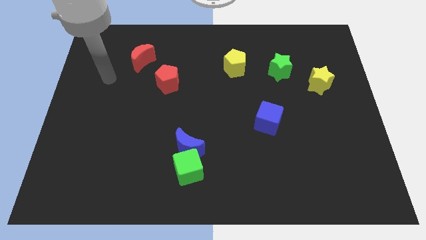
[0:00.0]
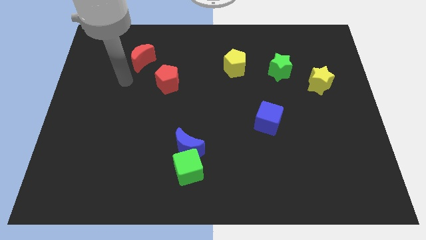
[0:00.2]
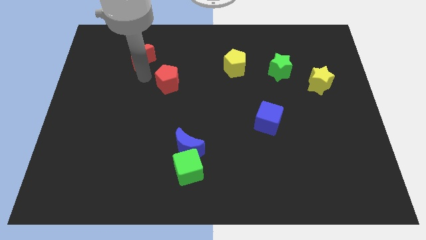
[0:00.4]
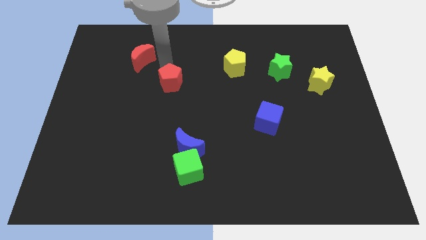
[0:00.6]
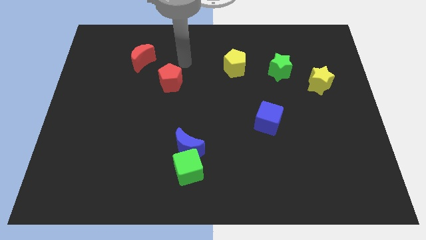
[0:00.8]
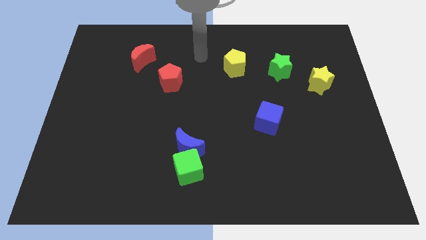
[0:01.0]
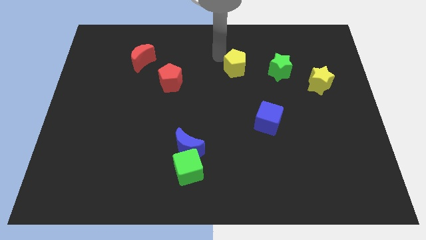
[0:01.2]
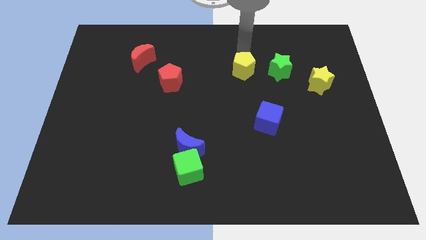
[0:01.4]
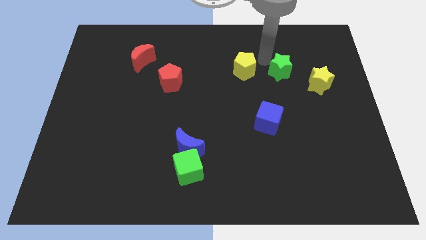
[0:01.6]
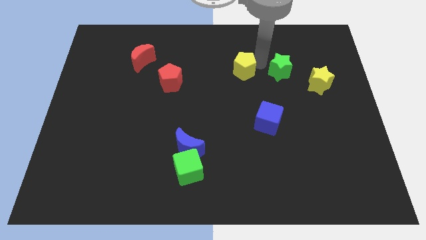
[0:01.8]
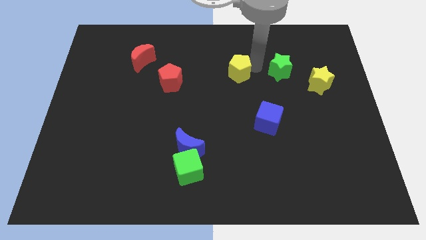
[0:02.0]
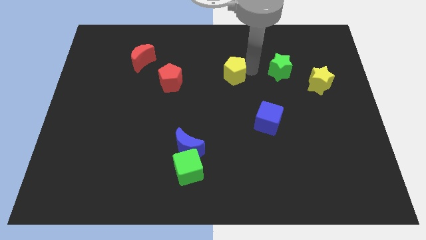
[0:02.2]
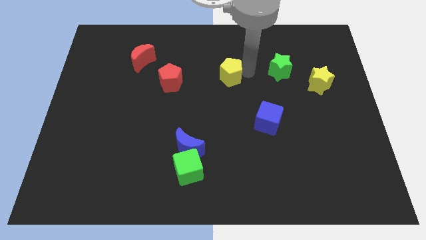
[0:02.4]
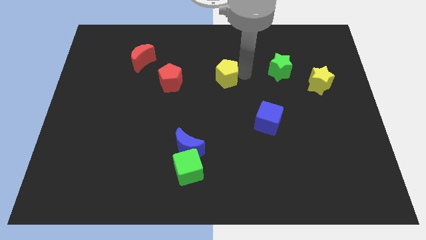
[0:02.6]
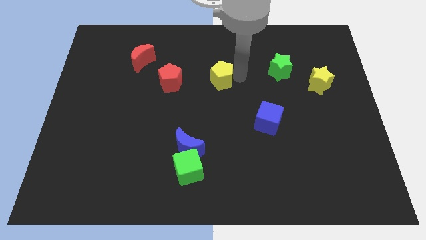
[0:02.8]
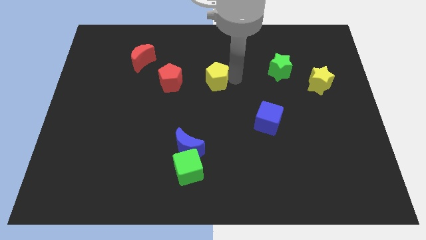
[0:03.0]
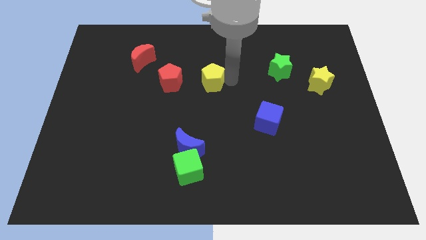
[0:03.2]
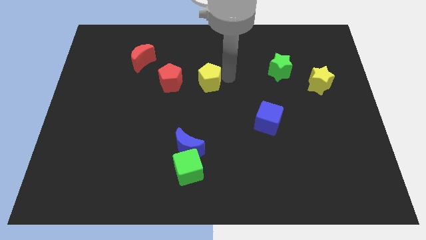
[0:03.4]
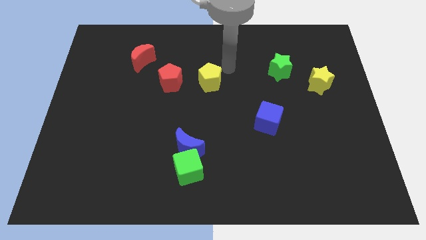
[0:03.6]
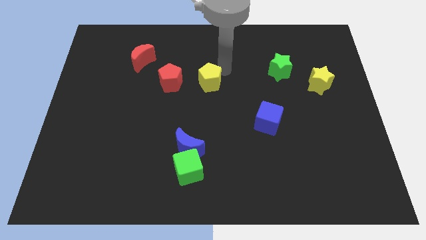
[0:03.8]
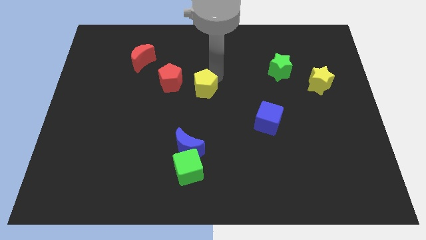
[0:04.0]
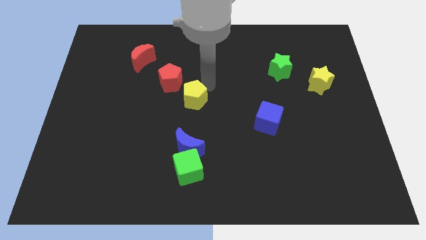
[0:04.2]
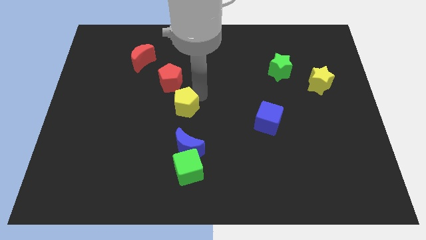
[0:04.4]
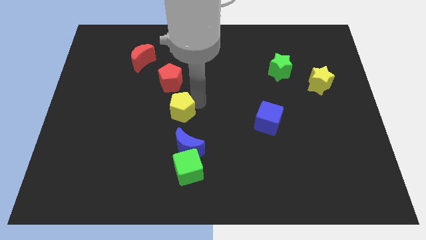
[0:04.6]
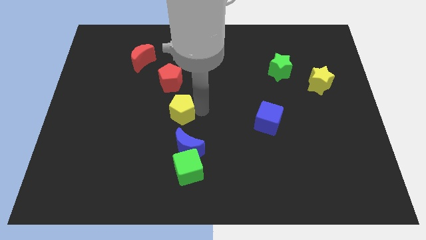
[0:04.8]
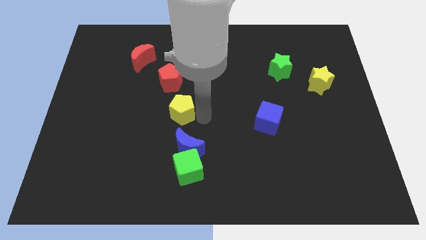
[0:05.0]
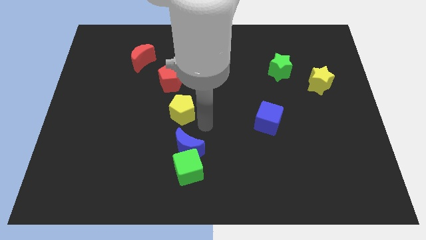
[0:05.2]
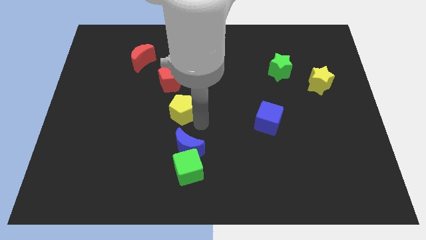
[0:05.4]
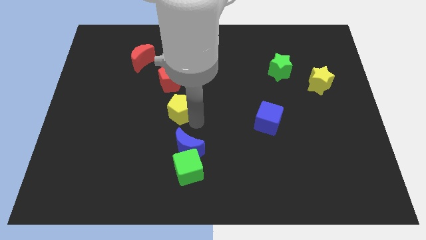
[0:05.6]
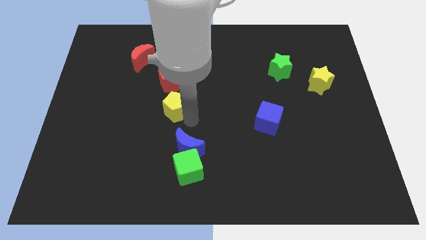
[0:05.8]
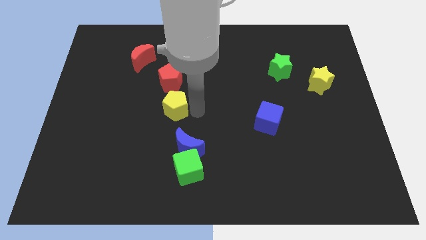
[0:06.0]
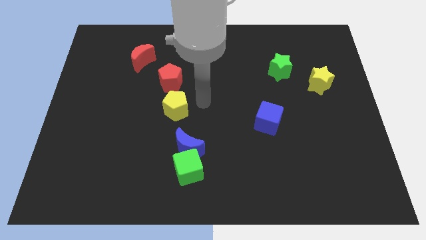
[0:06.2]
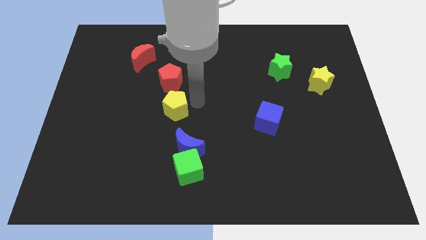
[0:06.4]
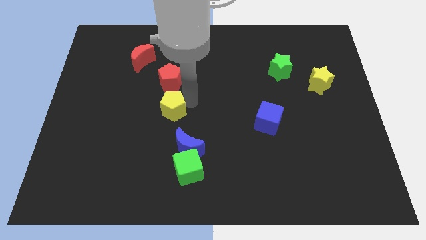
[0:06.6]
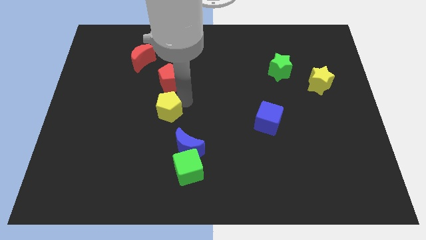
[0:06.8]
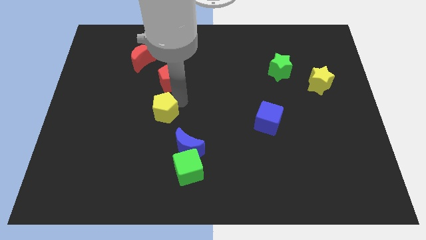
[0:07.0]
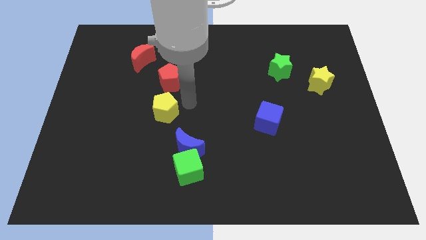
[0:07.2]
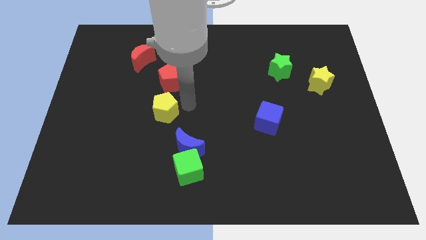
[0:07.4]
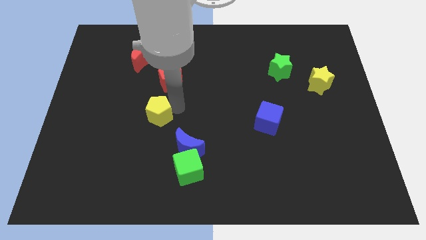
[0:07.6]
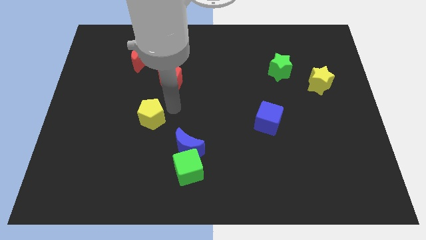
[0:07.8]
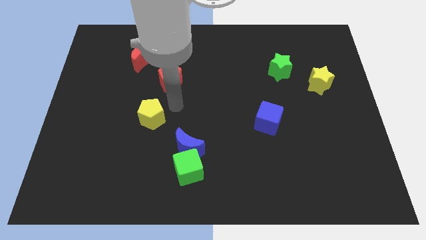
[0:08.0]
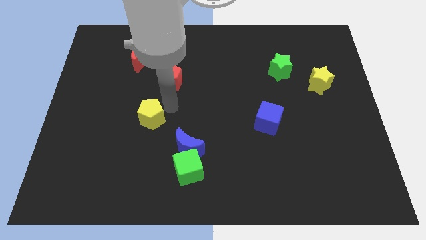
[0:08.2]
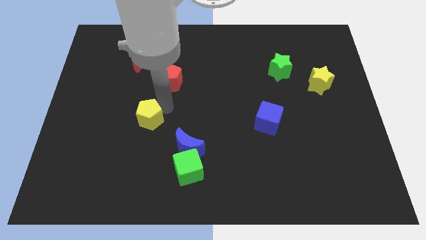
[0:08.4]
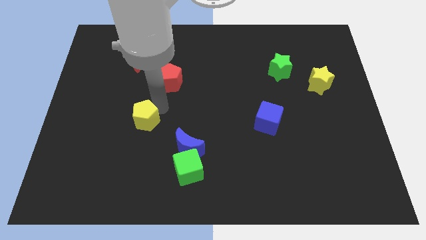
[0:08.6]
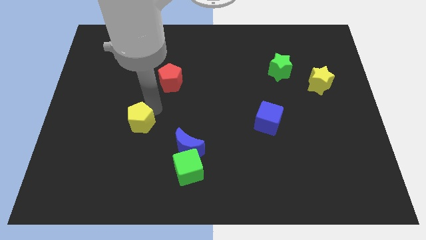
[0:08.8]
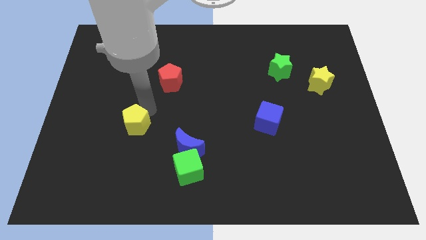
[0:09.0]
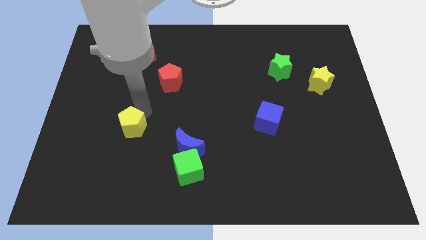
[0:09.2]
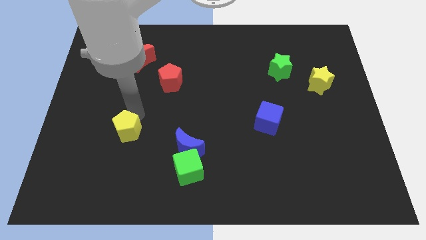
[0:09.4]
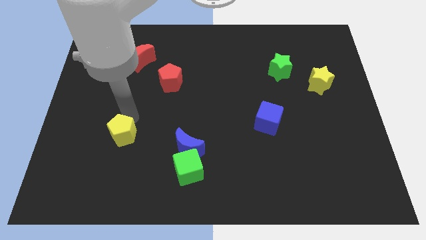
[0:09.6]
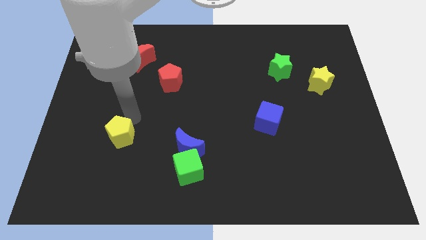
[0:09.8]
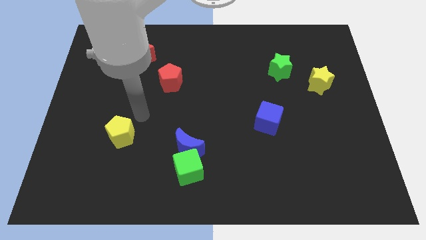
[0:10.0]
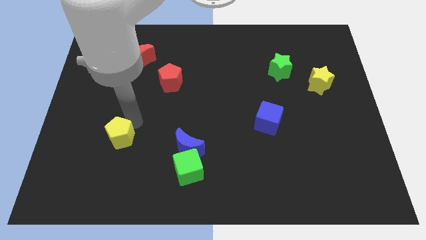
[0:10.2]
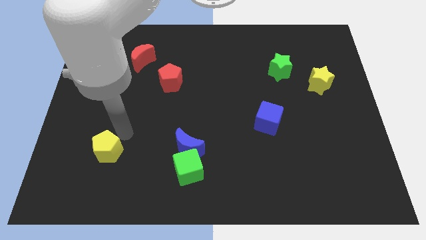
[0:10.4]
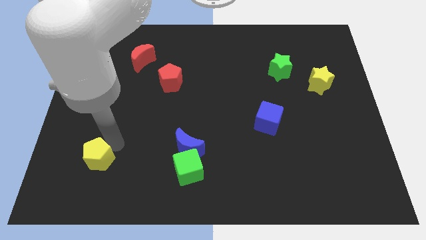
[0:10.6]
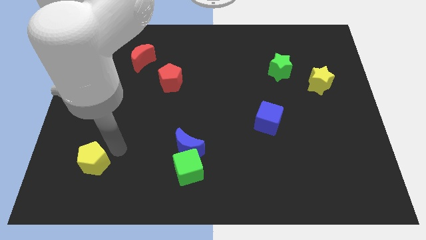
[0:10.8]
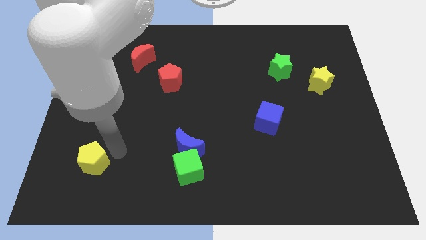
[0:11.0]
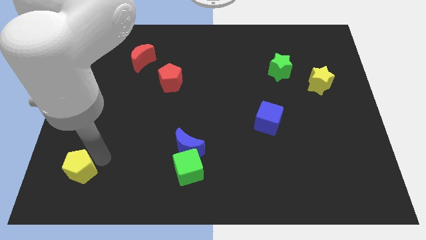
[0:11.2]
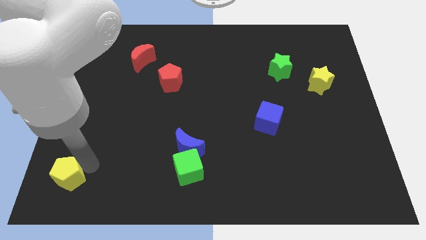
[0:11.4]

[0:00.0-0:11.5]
put the yellow pentagon to the bottom left corner
